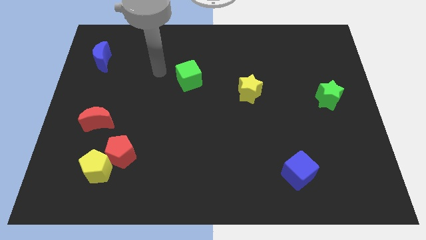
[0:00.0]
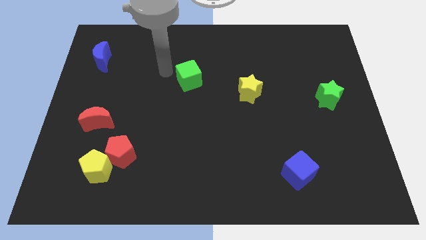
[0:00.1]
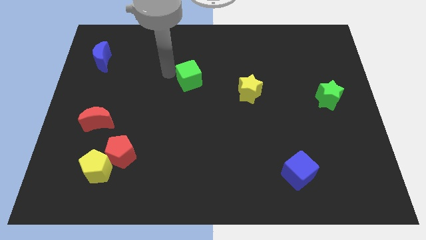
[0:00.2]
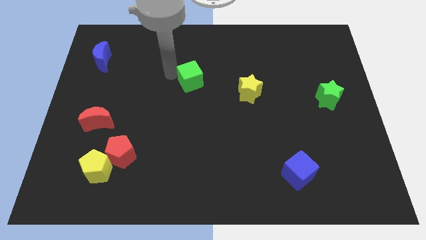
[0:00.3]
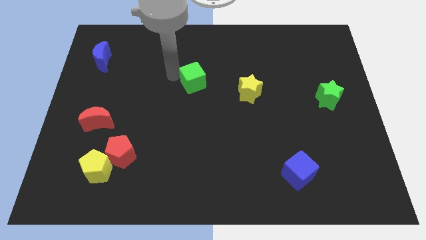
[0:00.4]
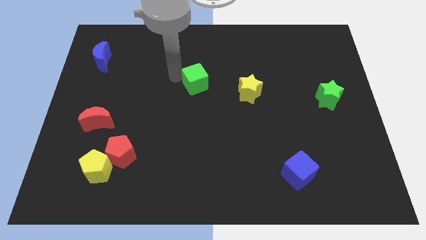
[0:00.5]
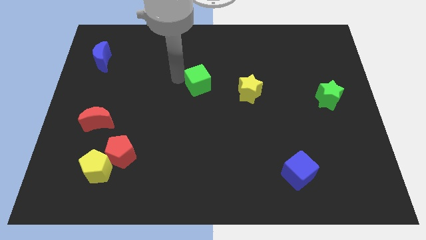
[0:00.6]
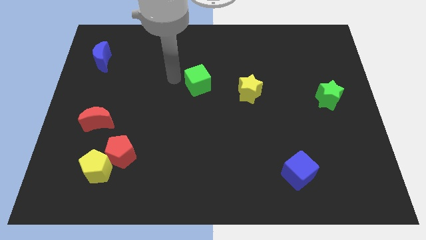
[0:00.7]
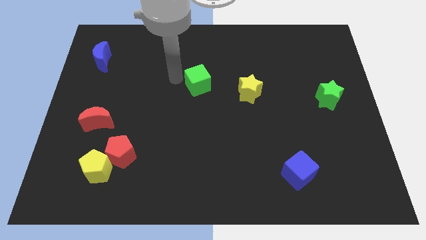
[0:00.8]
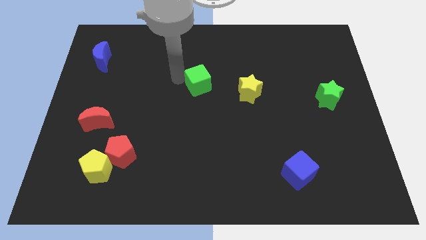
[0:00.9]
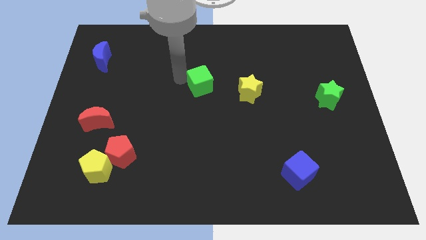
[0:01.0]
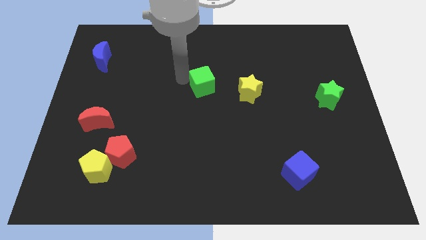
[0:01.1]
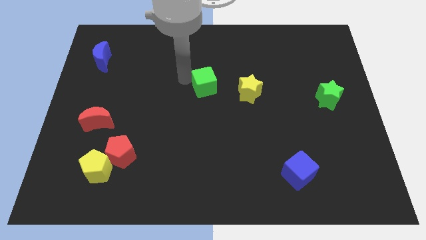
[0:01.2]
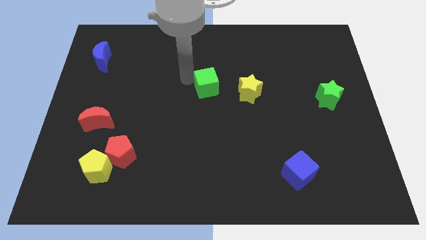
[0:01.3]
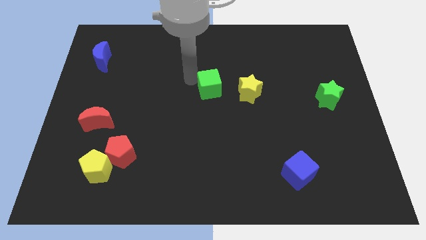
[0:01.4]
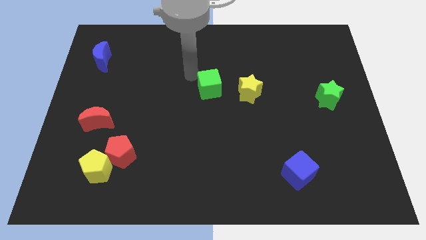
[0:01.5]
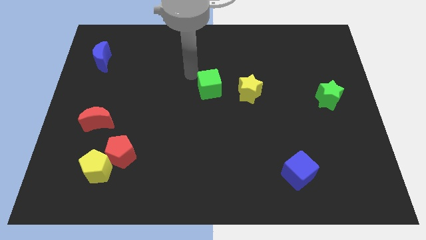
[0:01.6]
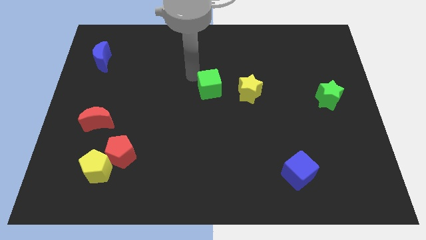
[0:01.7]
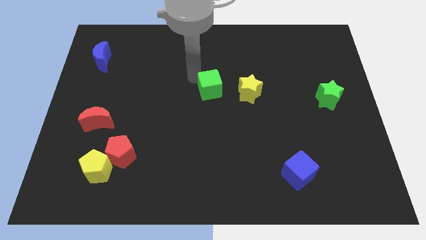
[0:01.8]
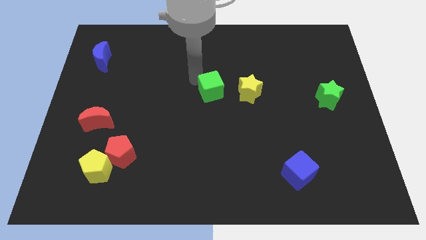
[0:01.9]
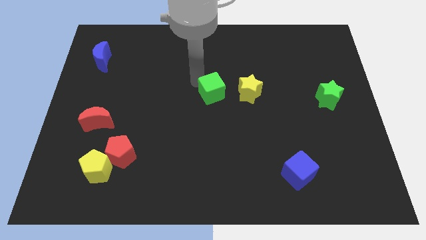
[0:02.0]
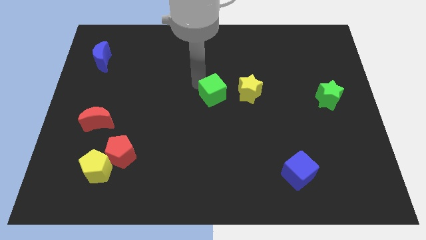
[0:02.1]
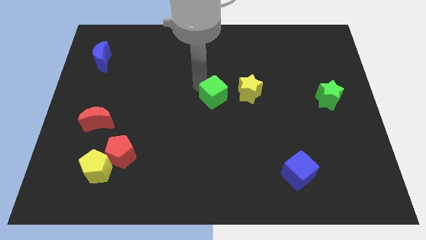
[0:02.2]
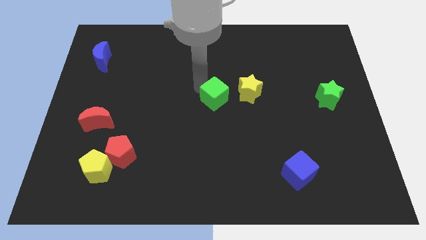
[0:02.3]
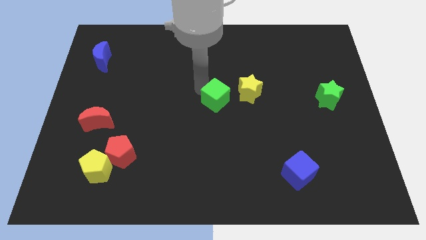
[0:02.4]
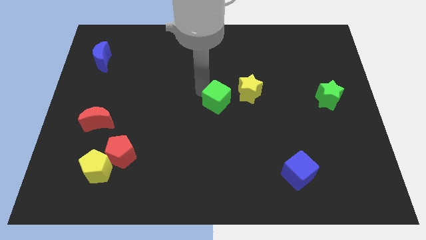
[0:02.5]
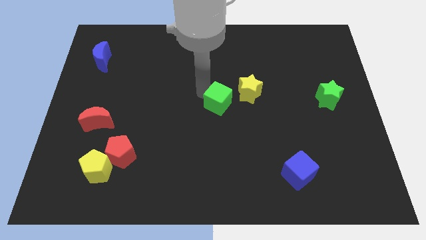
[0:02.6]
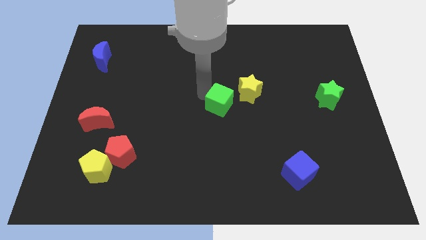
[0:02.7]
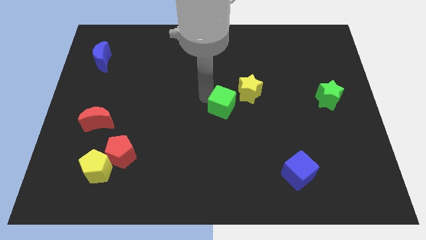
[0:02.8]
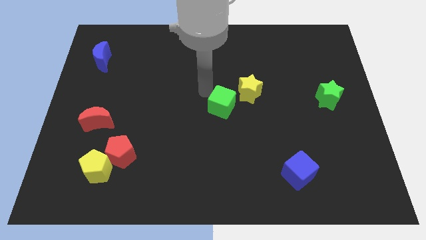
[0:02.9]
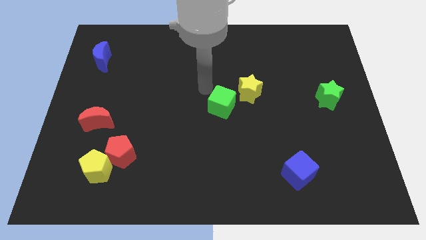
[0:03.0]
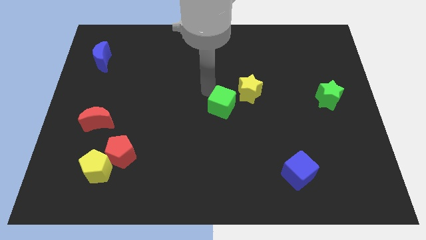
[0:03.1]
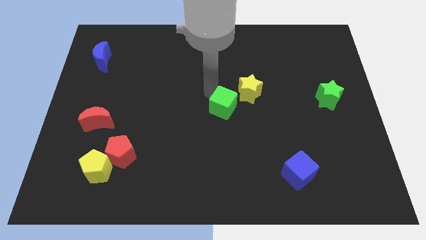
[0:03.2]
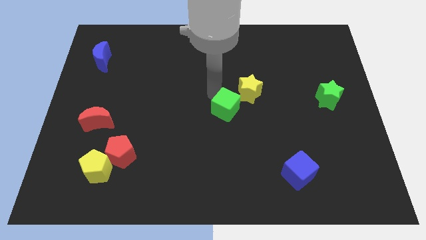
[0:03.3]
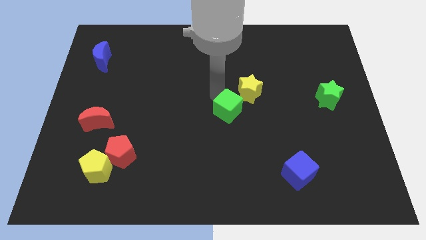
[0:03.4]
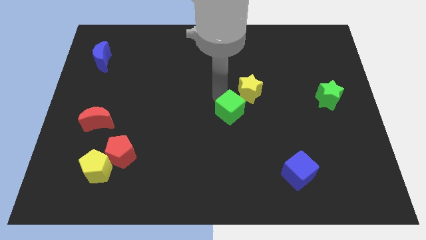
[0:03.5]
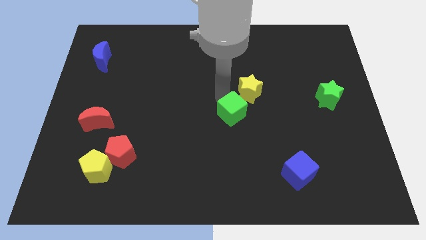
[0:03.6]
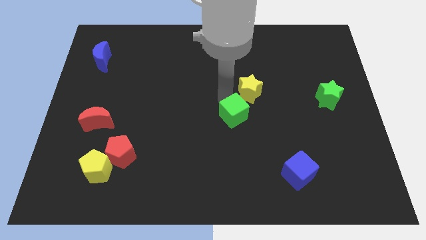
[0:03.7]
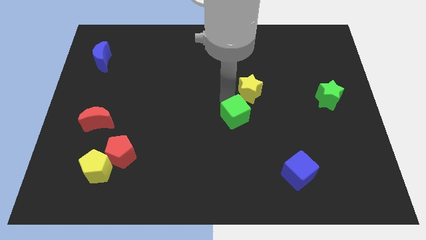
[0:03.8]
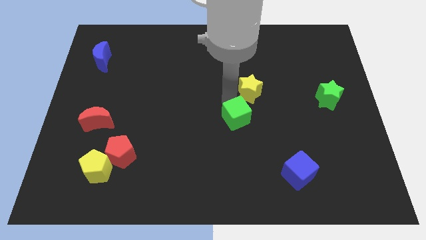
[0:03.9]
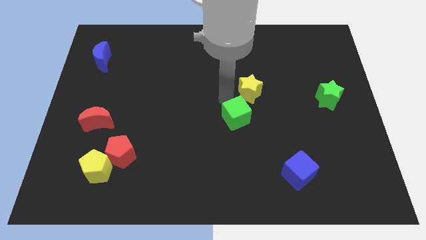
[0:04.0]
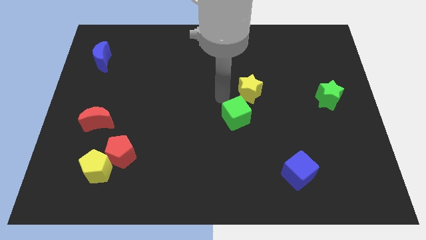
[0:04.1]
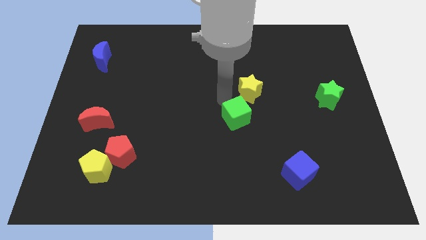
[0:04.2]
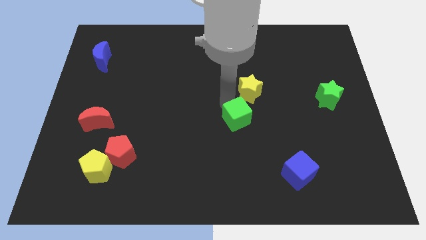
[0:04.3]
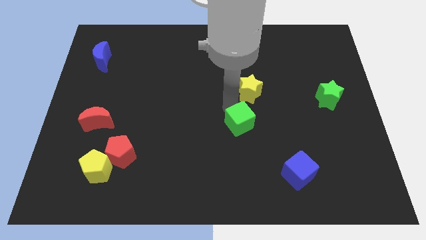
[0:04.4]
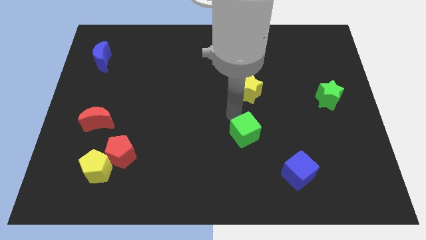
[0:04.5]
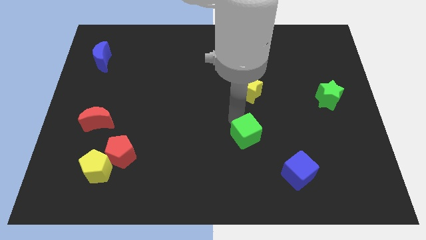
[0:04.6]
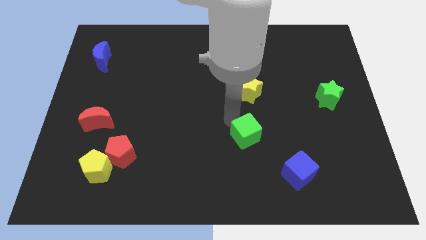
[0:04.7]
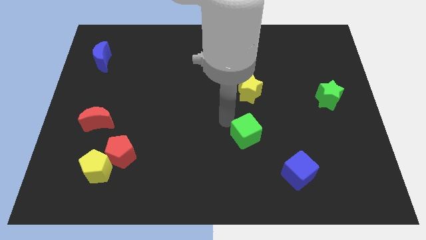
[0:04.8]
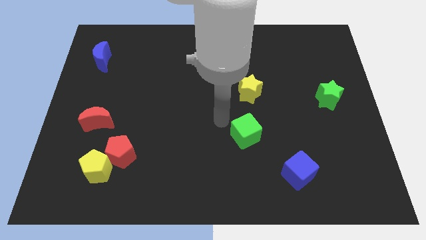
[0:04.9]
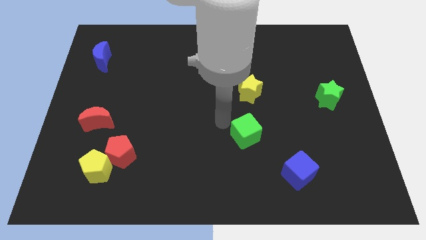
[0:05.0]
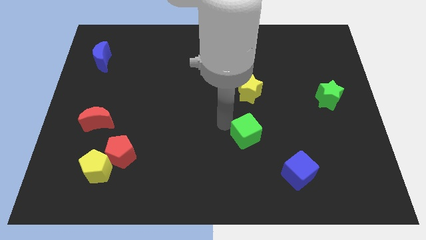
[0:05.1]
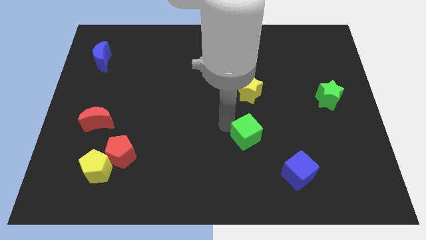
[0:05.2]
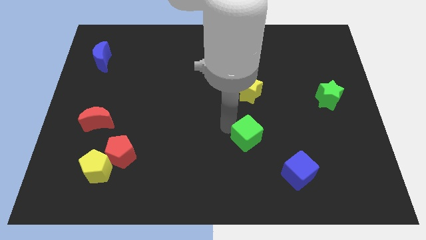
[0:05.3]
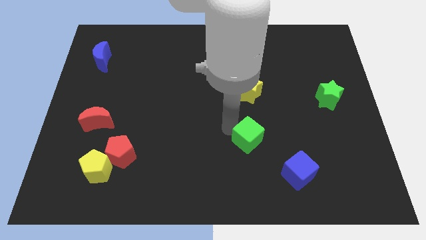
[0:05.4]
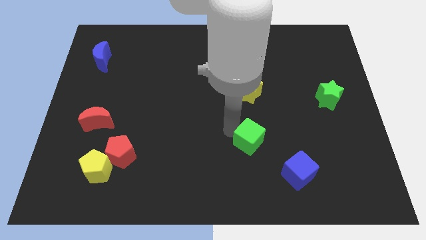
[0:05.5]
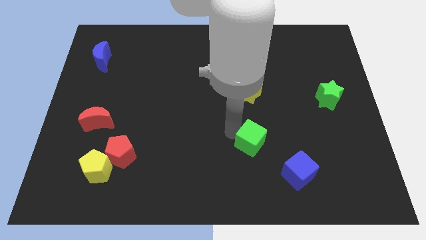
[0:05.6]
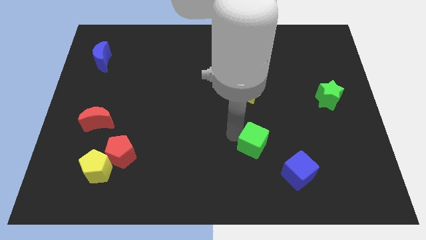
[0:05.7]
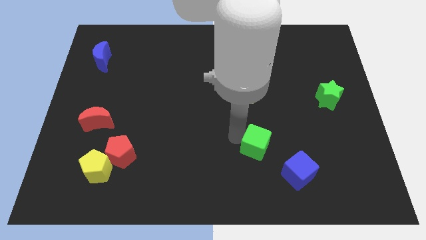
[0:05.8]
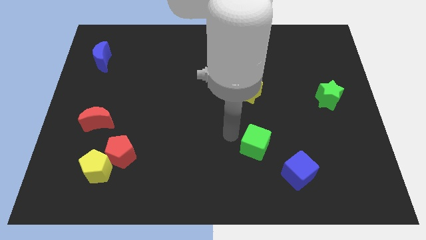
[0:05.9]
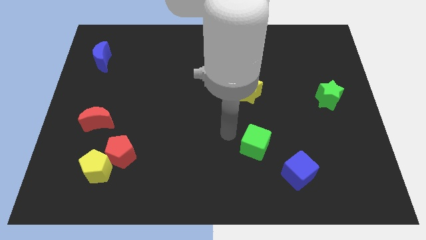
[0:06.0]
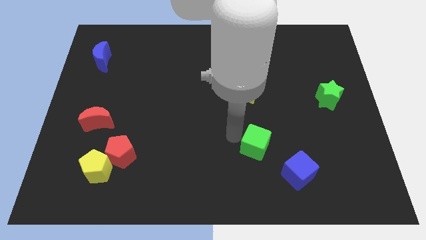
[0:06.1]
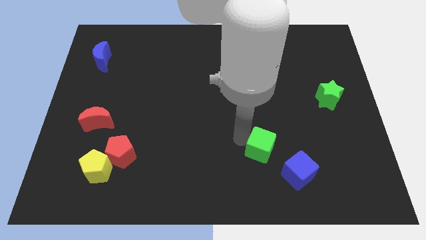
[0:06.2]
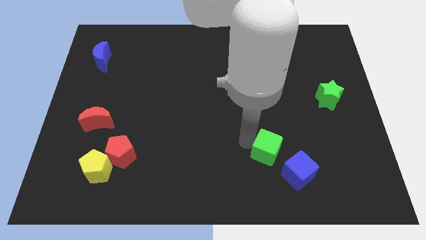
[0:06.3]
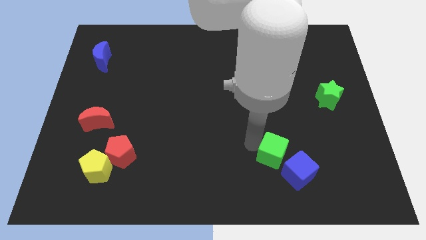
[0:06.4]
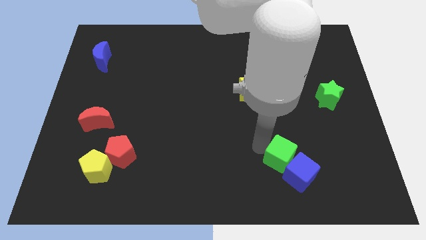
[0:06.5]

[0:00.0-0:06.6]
put the green cube close to the blue cube
